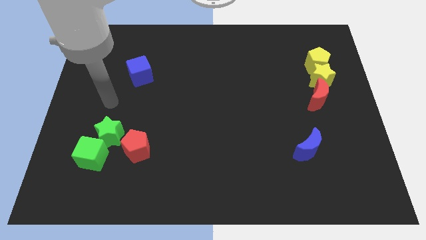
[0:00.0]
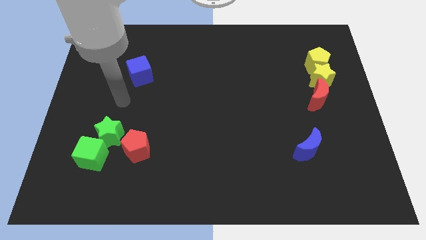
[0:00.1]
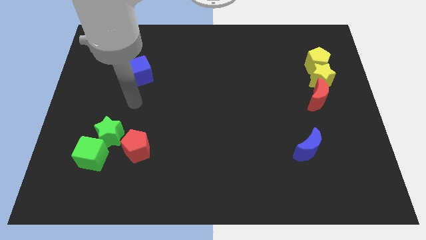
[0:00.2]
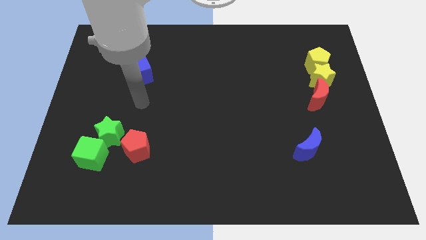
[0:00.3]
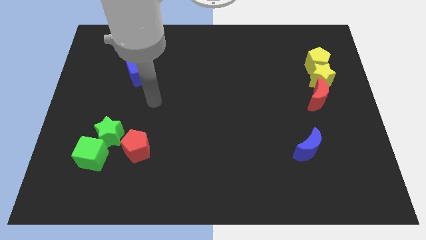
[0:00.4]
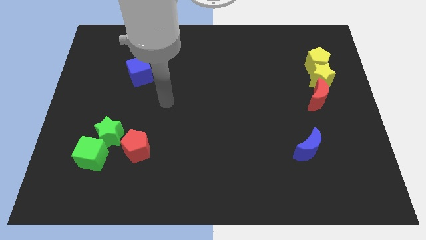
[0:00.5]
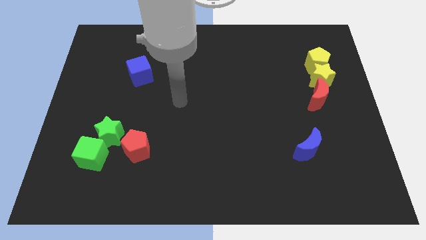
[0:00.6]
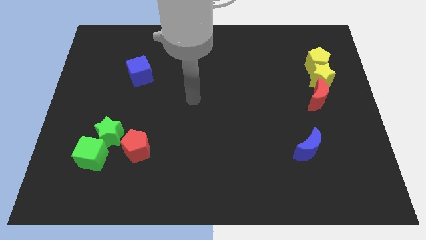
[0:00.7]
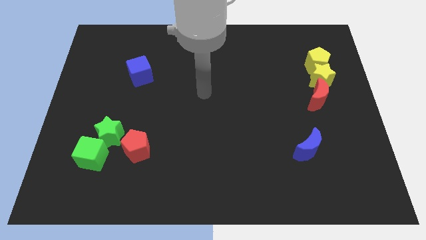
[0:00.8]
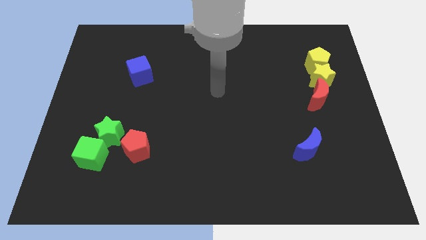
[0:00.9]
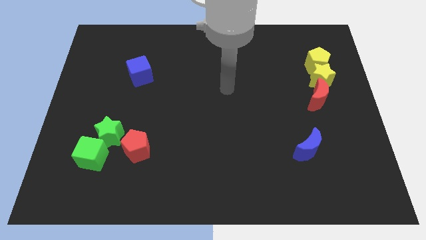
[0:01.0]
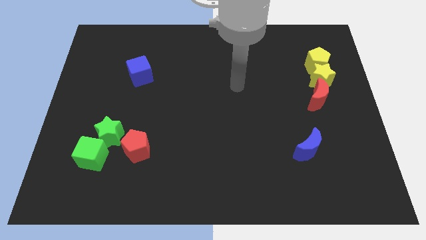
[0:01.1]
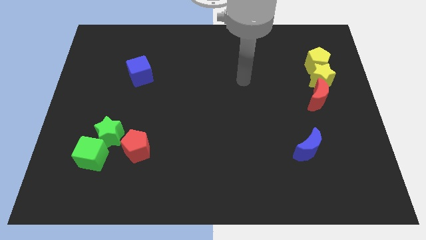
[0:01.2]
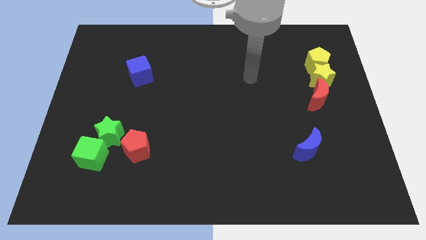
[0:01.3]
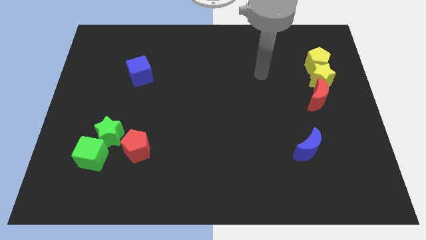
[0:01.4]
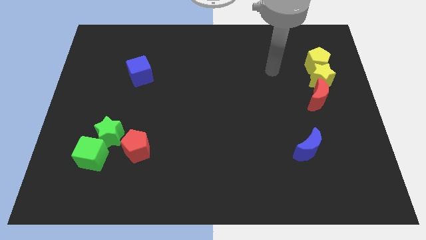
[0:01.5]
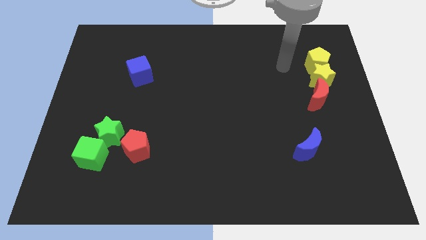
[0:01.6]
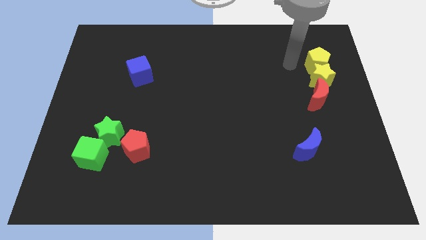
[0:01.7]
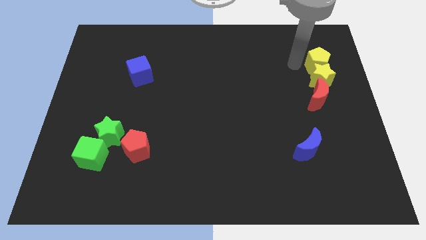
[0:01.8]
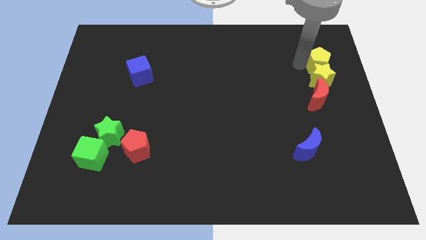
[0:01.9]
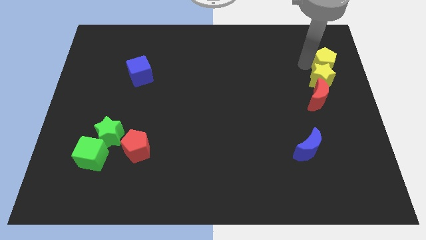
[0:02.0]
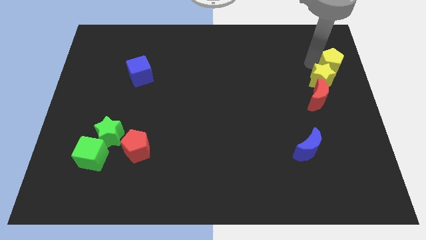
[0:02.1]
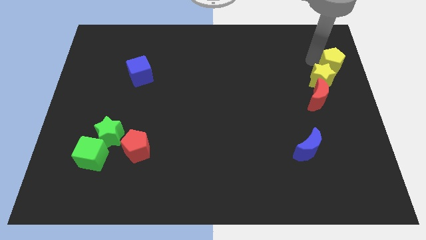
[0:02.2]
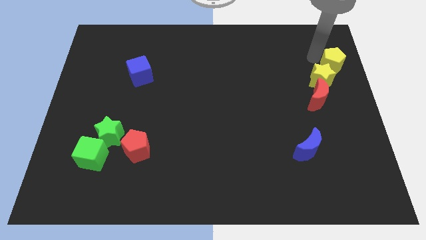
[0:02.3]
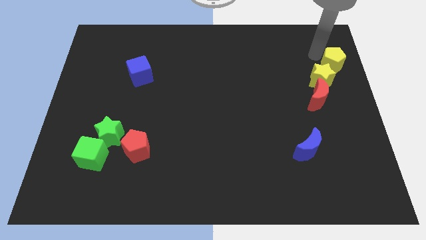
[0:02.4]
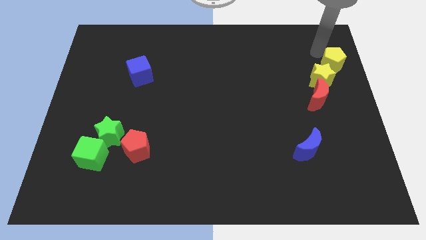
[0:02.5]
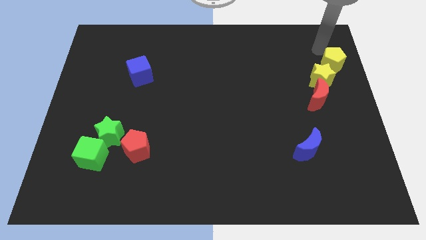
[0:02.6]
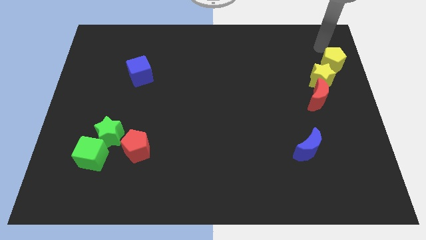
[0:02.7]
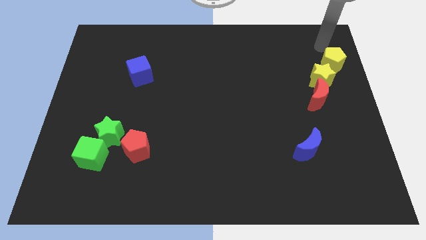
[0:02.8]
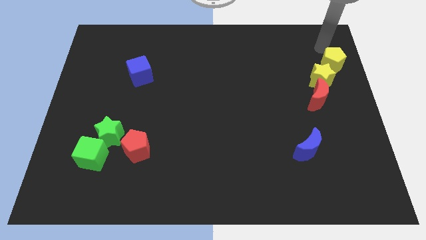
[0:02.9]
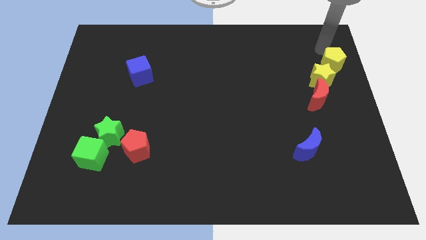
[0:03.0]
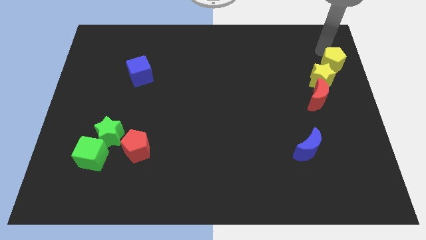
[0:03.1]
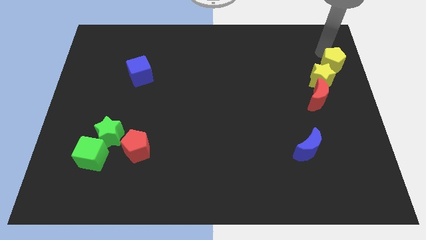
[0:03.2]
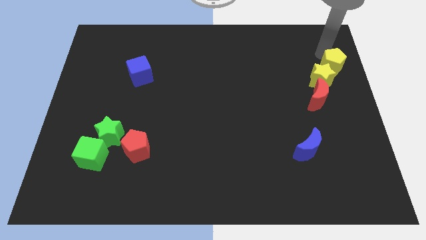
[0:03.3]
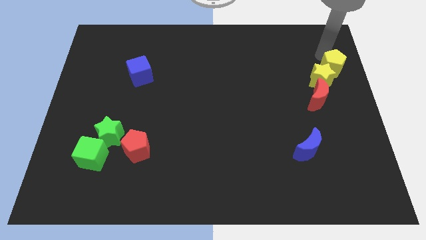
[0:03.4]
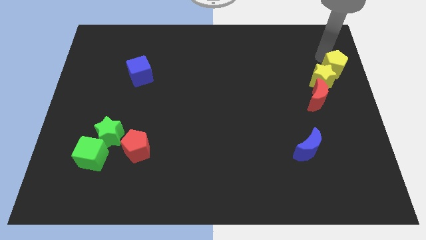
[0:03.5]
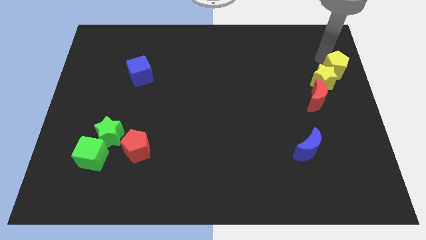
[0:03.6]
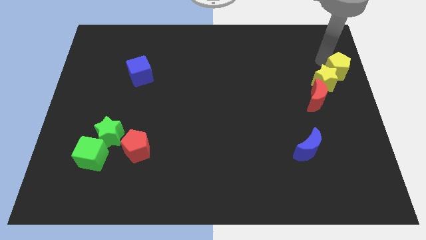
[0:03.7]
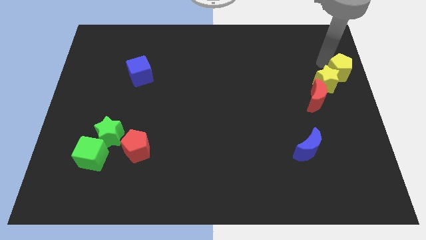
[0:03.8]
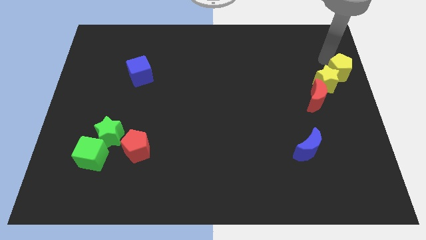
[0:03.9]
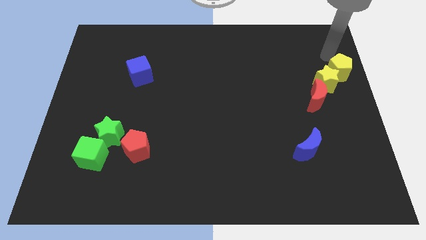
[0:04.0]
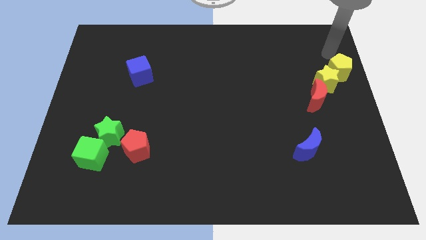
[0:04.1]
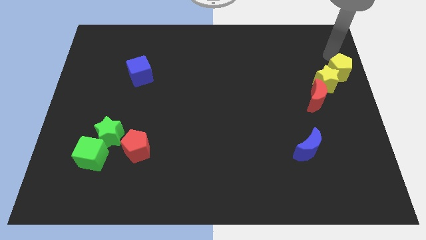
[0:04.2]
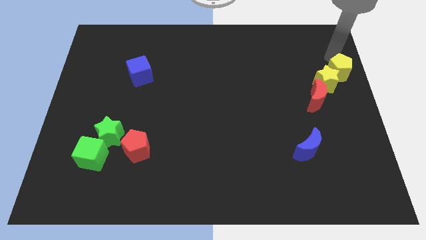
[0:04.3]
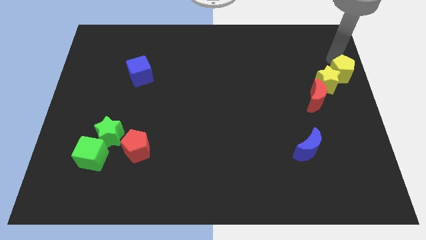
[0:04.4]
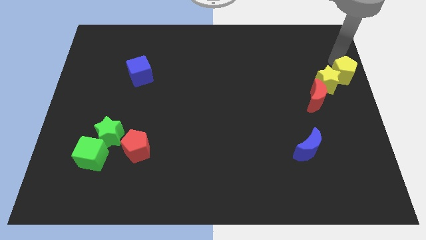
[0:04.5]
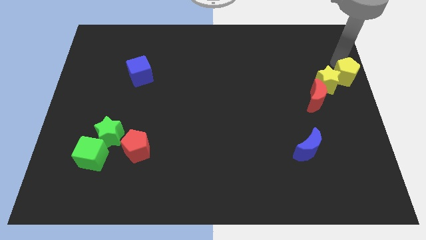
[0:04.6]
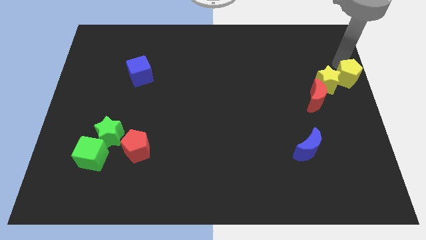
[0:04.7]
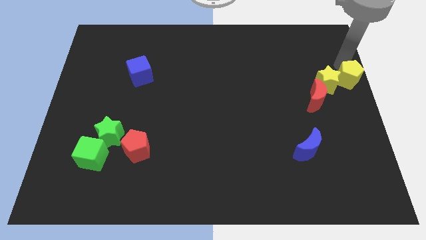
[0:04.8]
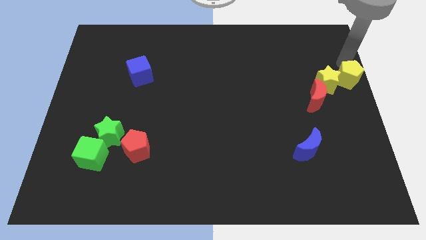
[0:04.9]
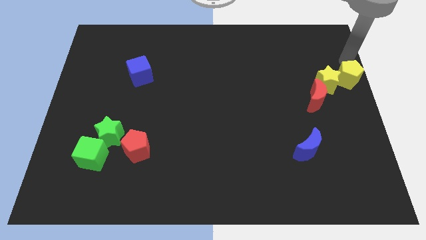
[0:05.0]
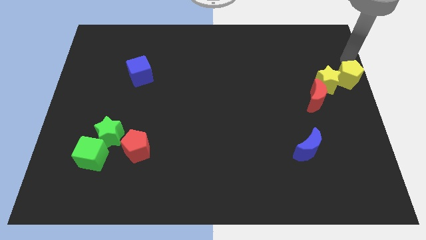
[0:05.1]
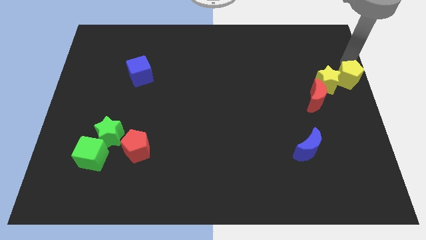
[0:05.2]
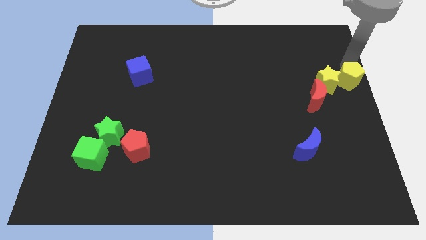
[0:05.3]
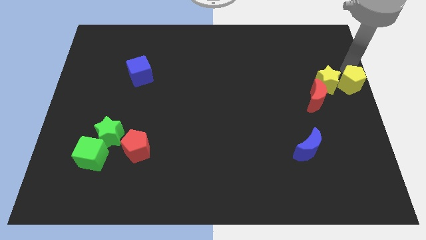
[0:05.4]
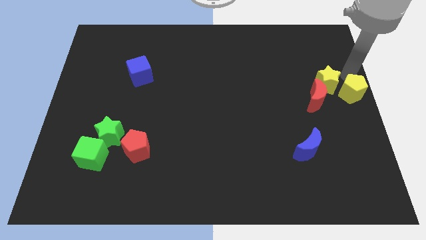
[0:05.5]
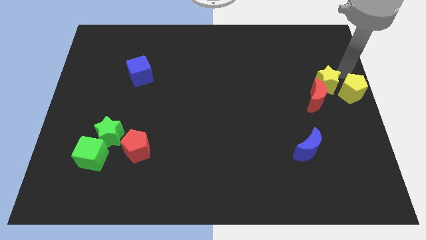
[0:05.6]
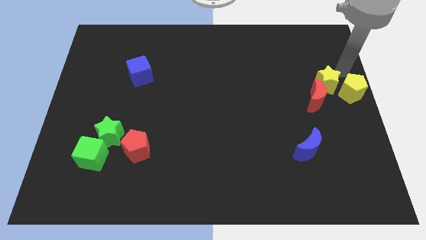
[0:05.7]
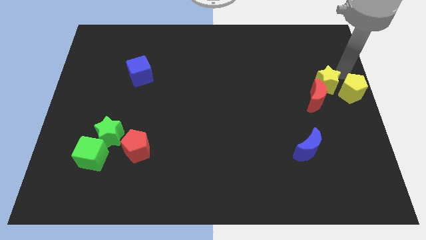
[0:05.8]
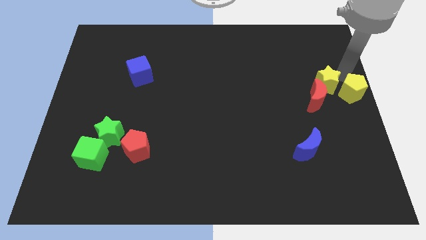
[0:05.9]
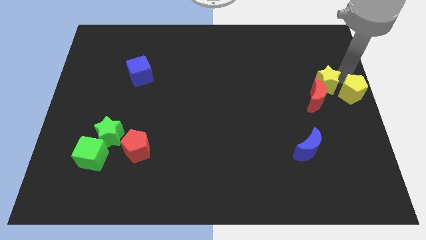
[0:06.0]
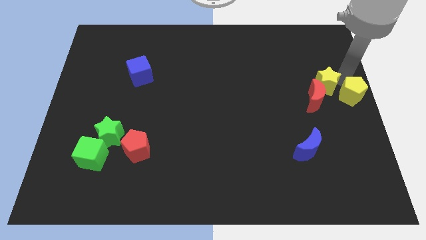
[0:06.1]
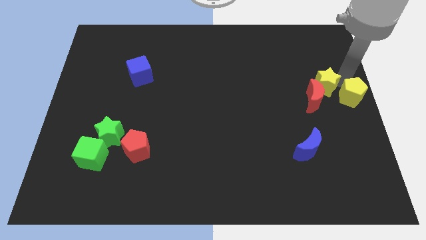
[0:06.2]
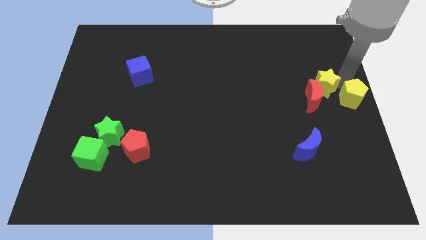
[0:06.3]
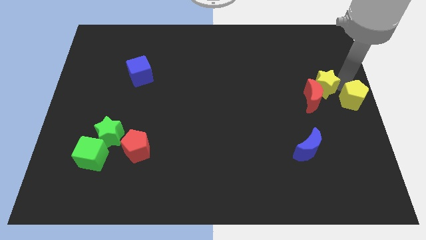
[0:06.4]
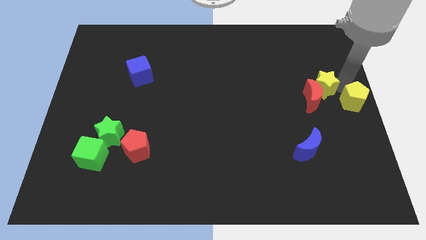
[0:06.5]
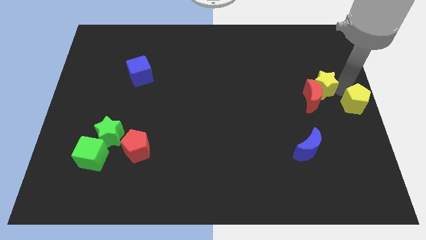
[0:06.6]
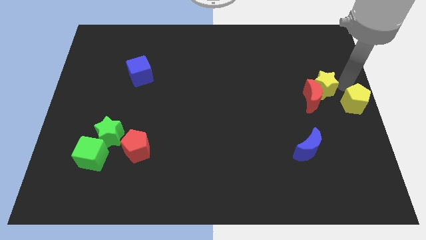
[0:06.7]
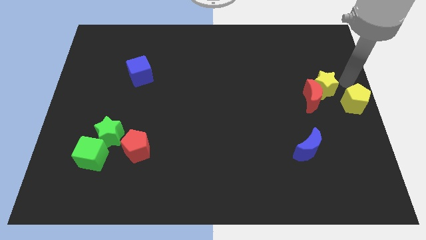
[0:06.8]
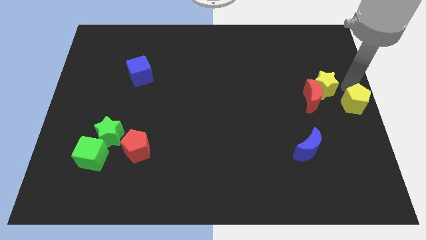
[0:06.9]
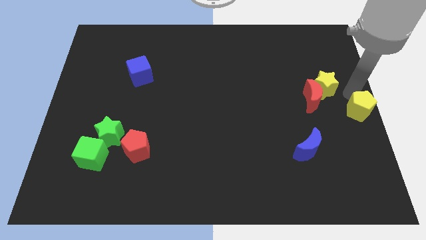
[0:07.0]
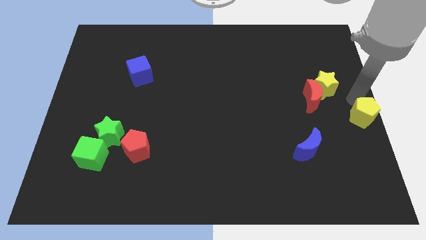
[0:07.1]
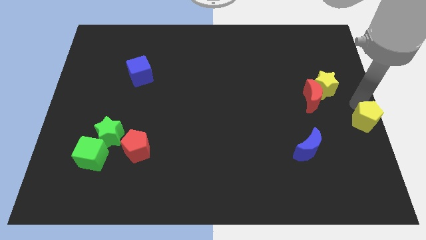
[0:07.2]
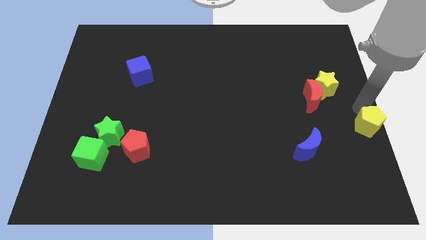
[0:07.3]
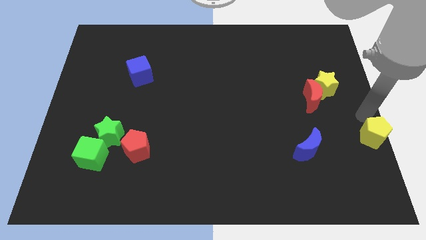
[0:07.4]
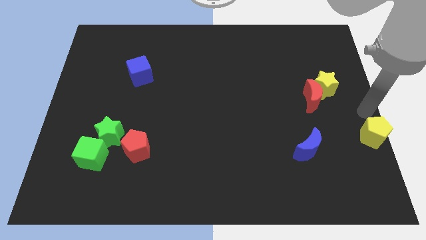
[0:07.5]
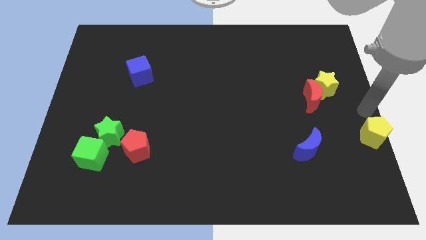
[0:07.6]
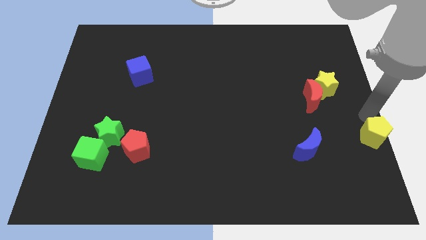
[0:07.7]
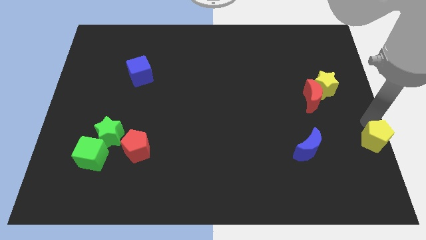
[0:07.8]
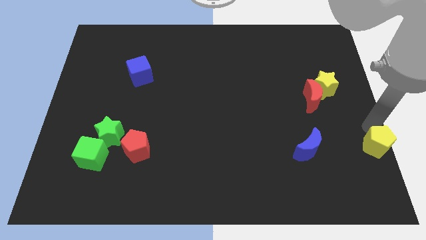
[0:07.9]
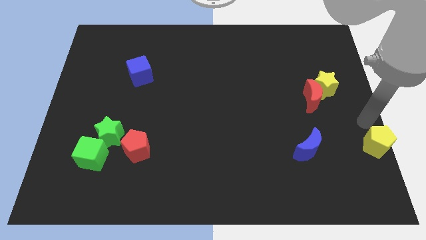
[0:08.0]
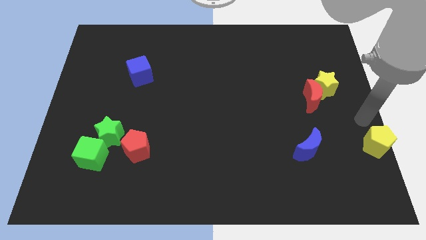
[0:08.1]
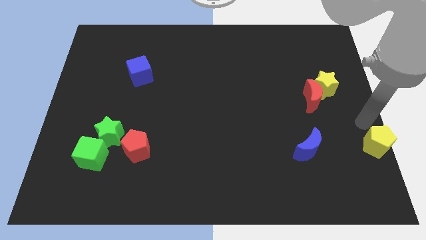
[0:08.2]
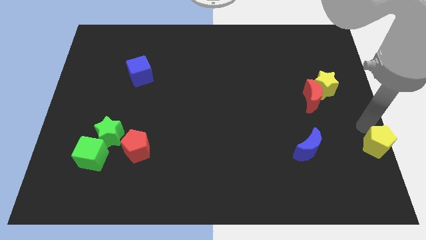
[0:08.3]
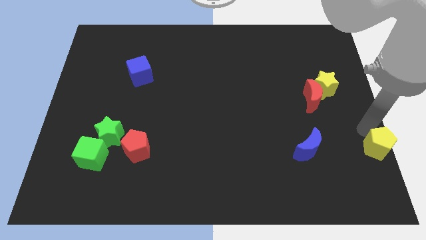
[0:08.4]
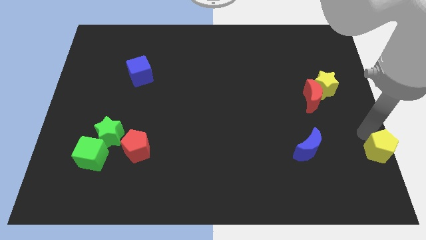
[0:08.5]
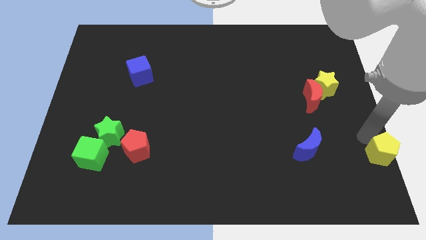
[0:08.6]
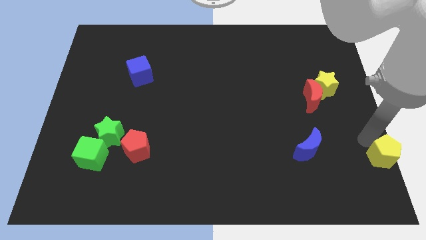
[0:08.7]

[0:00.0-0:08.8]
put the yellow pentagon to the bottom right
